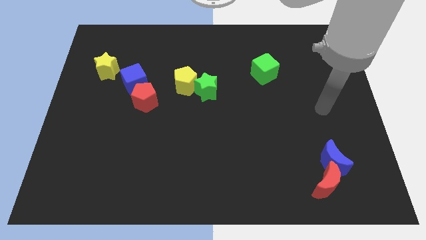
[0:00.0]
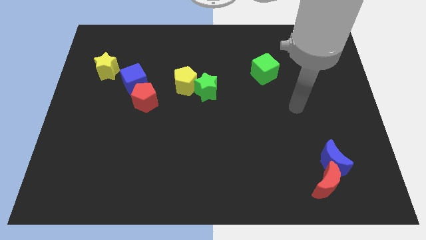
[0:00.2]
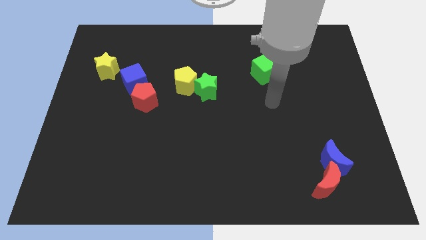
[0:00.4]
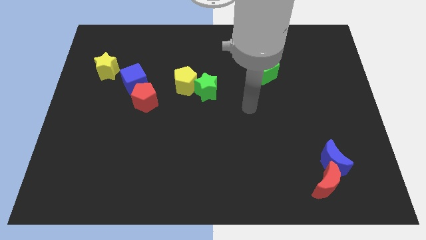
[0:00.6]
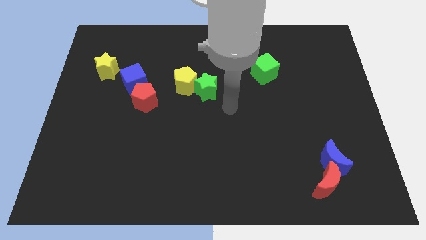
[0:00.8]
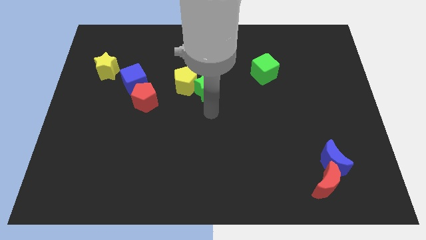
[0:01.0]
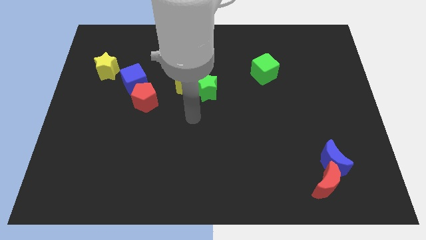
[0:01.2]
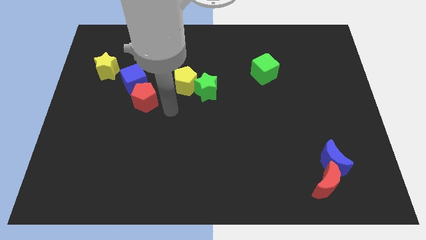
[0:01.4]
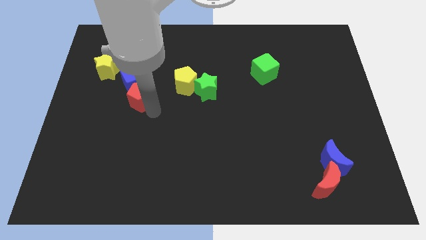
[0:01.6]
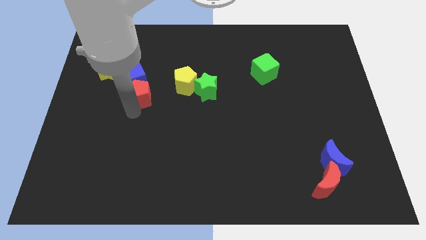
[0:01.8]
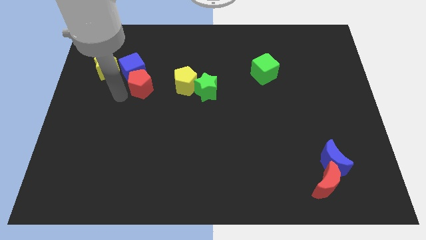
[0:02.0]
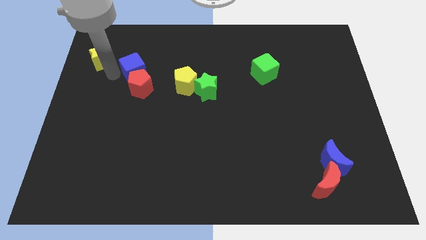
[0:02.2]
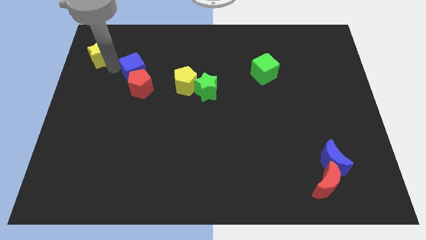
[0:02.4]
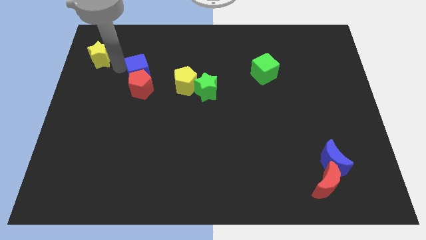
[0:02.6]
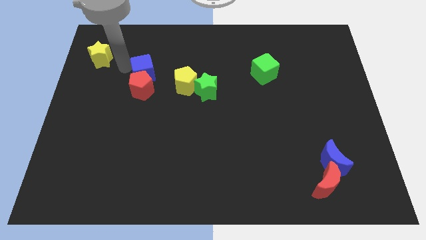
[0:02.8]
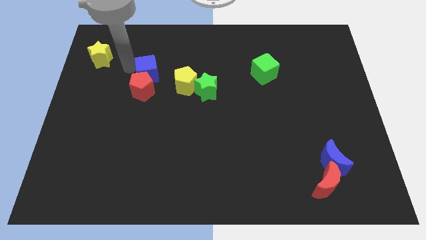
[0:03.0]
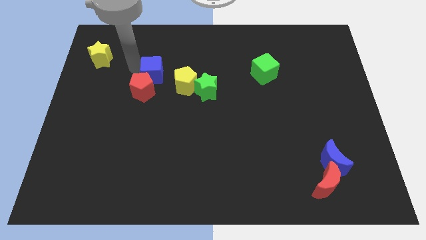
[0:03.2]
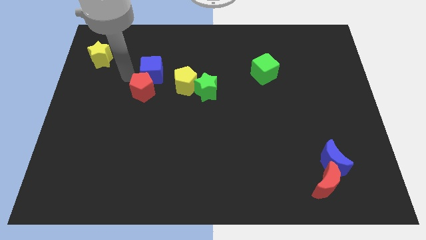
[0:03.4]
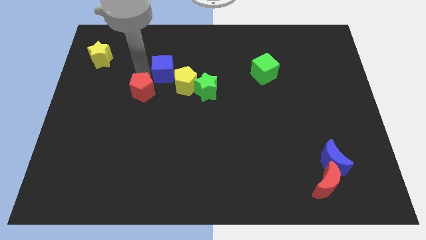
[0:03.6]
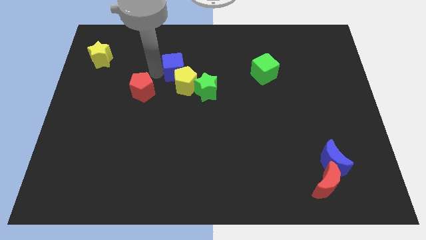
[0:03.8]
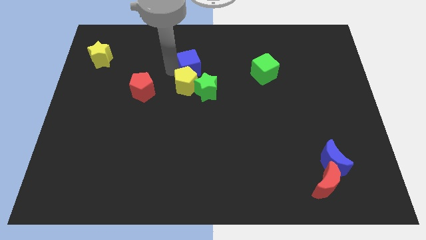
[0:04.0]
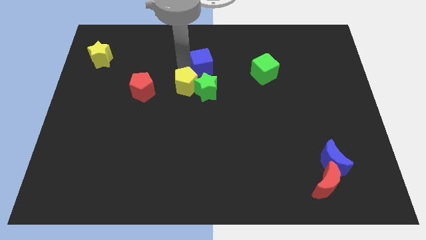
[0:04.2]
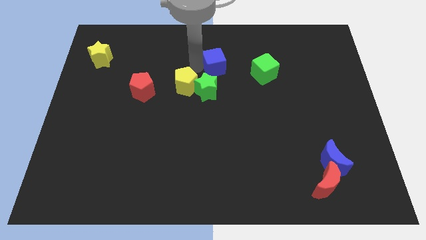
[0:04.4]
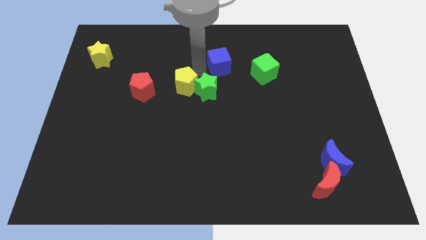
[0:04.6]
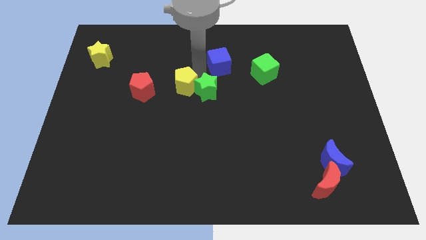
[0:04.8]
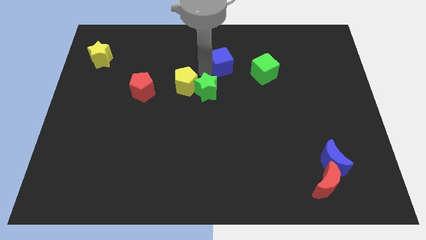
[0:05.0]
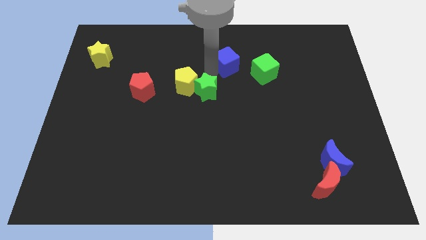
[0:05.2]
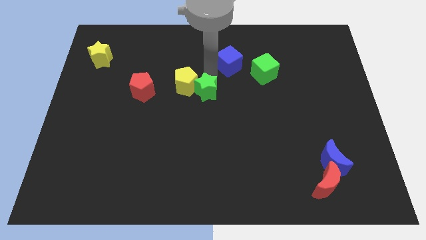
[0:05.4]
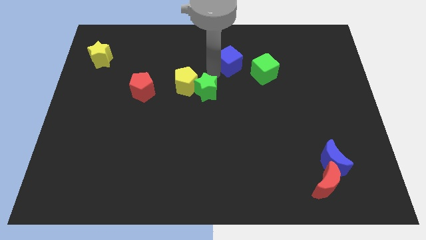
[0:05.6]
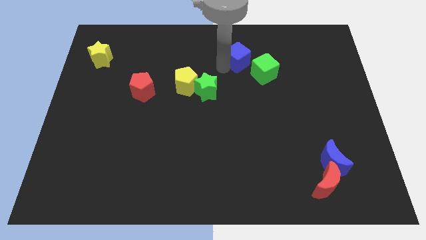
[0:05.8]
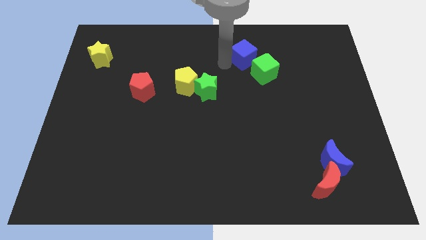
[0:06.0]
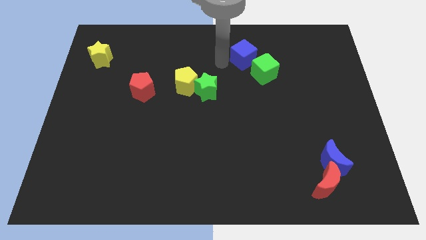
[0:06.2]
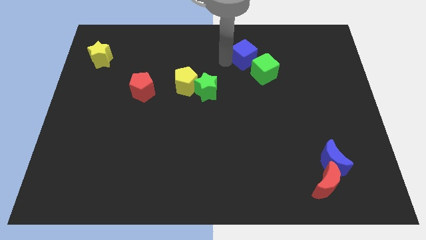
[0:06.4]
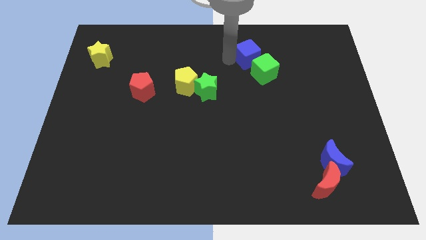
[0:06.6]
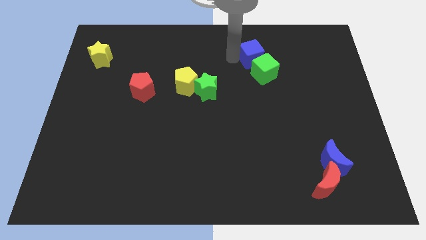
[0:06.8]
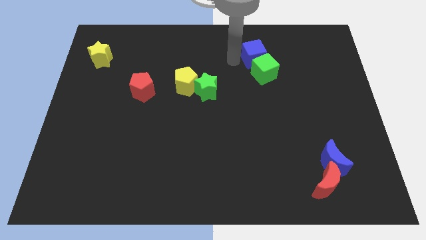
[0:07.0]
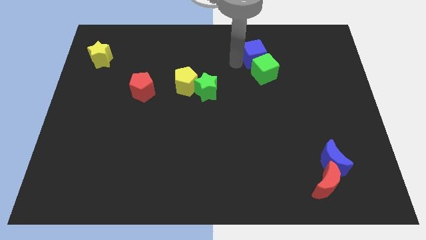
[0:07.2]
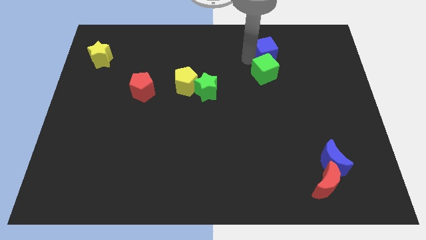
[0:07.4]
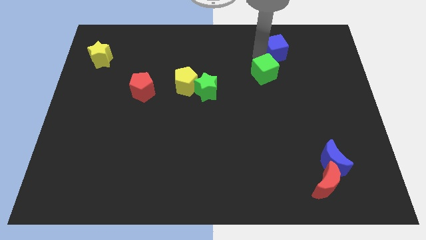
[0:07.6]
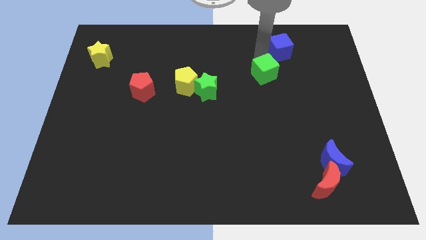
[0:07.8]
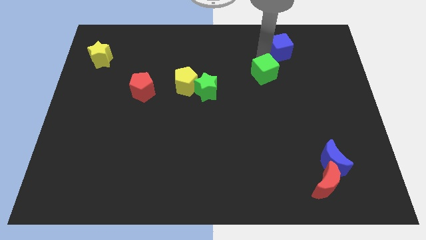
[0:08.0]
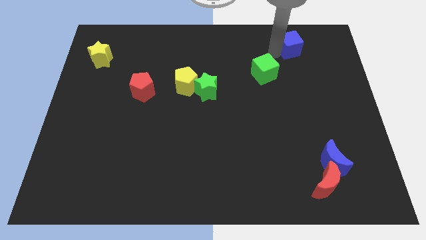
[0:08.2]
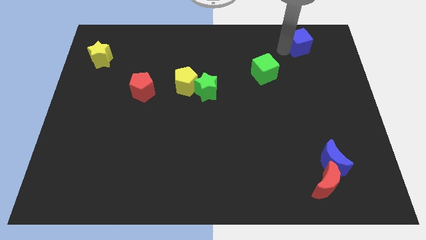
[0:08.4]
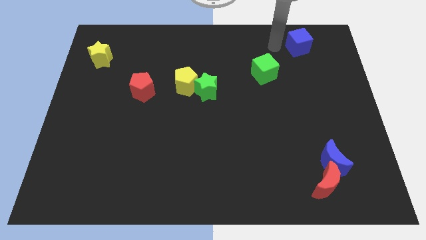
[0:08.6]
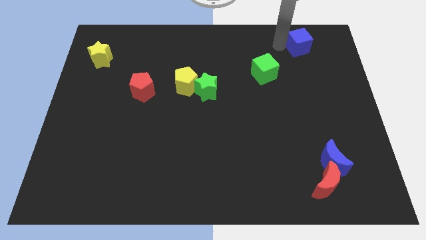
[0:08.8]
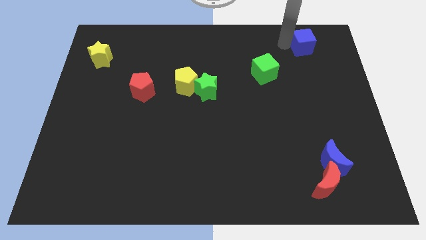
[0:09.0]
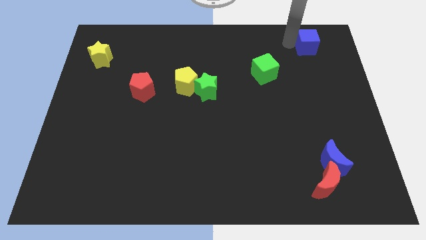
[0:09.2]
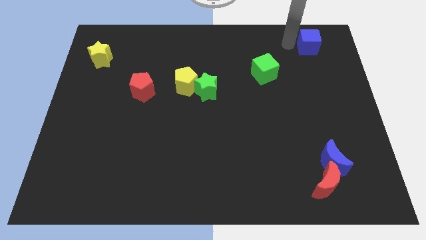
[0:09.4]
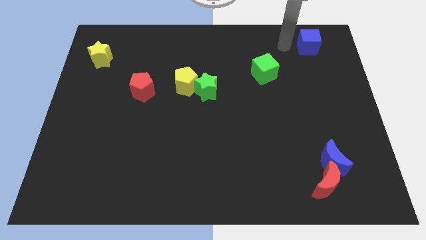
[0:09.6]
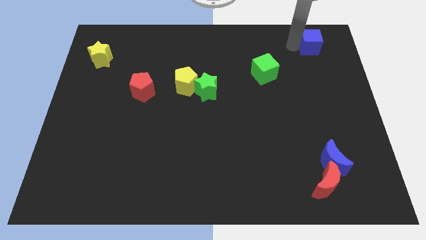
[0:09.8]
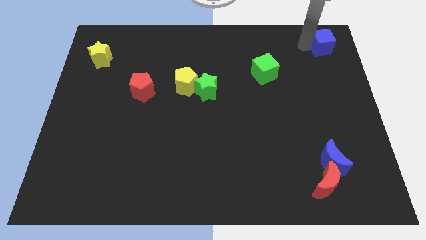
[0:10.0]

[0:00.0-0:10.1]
slide the blue cube to the top right

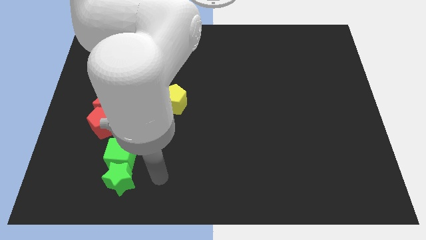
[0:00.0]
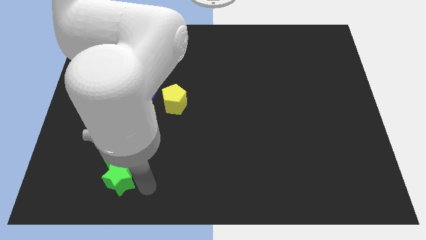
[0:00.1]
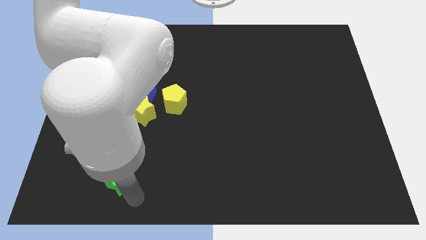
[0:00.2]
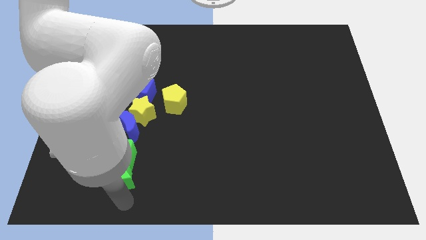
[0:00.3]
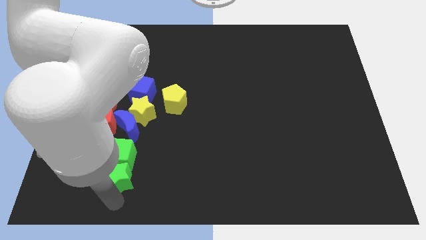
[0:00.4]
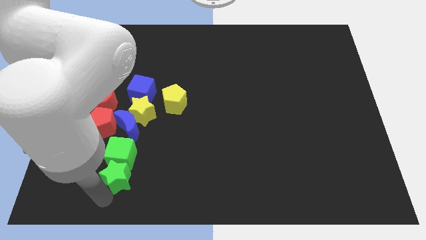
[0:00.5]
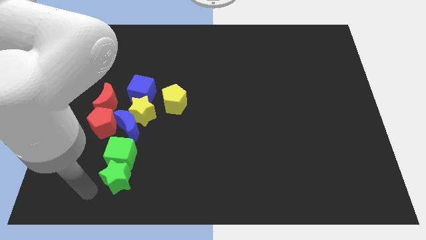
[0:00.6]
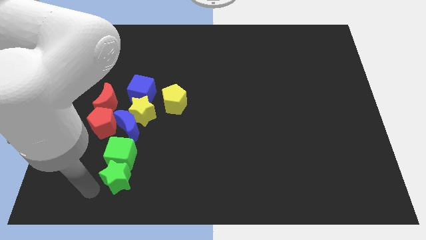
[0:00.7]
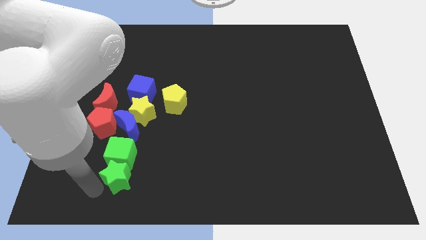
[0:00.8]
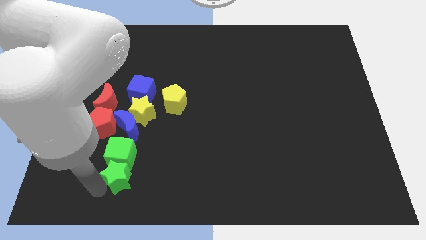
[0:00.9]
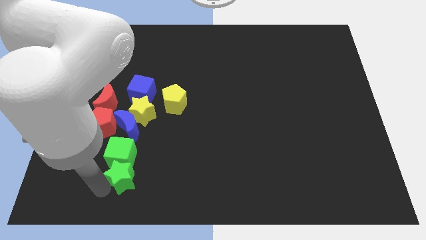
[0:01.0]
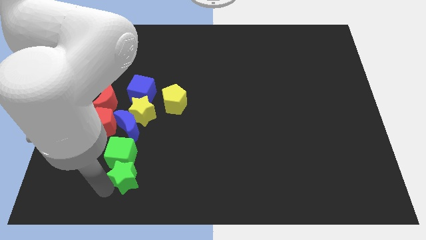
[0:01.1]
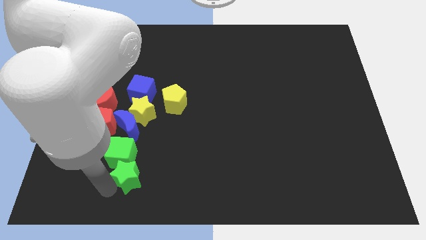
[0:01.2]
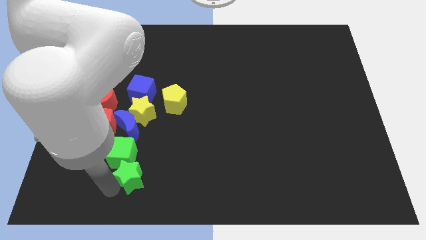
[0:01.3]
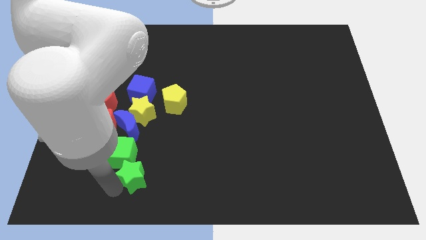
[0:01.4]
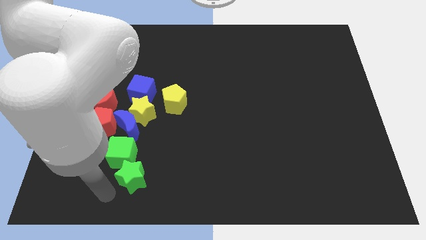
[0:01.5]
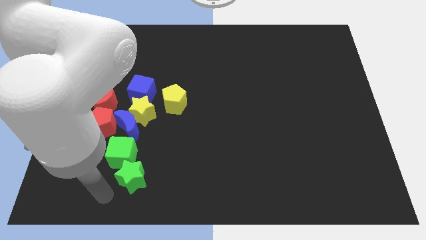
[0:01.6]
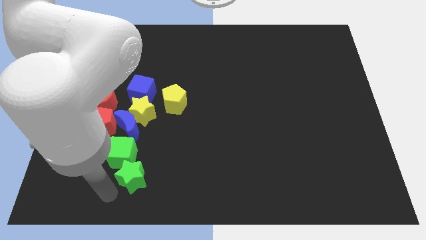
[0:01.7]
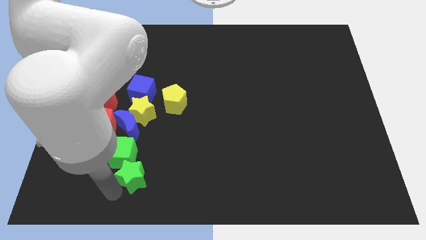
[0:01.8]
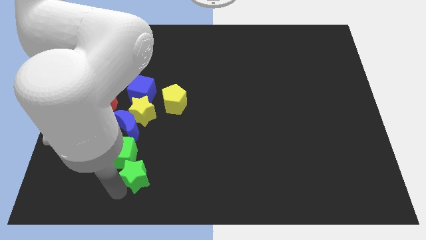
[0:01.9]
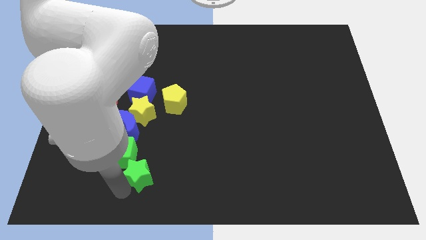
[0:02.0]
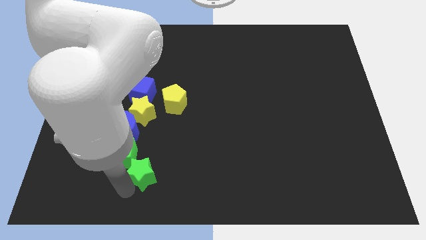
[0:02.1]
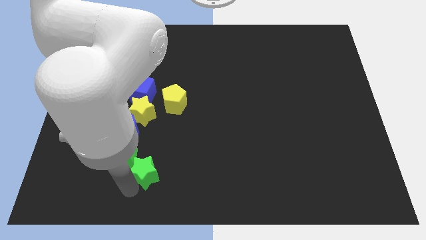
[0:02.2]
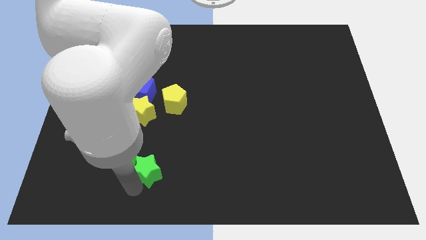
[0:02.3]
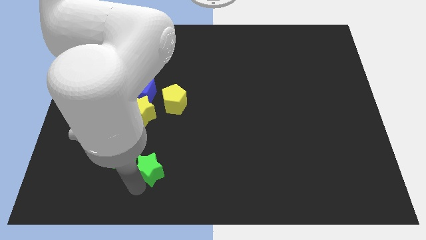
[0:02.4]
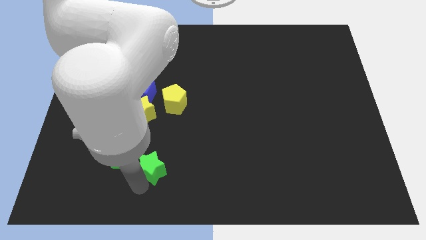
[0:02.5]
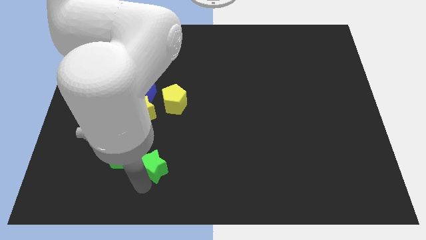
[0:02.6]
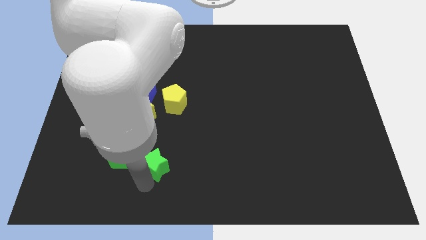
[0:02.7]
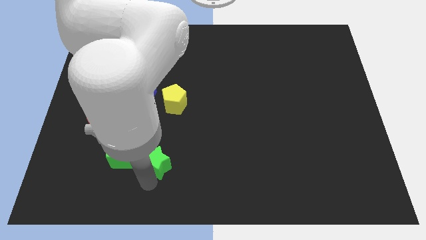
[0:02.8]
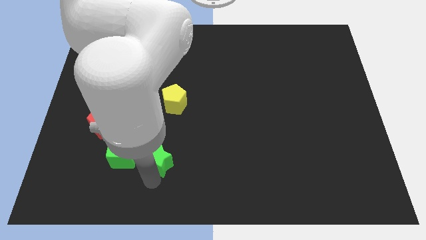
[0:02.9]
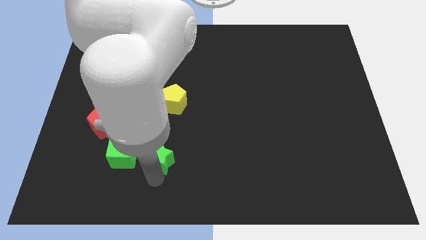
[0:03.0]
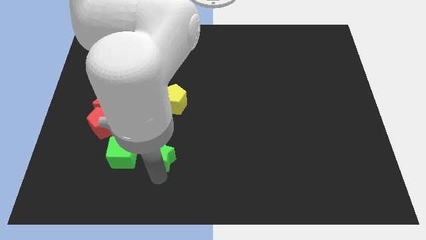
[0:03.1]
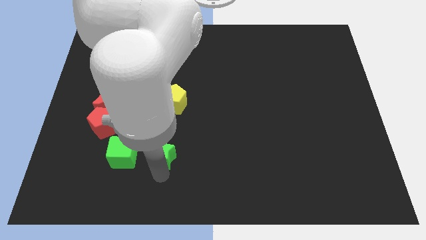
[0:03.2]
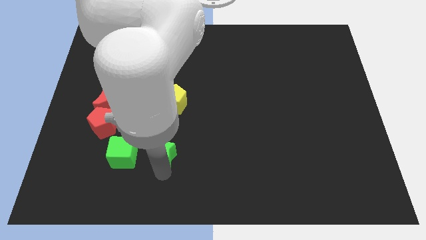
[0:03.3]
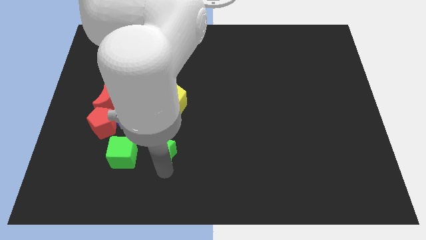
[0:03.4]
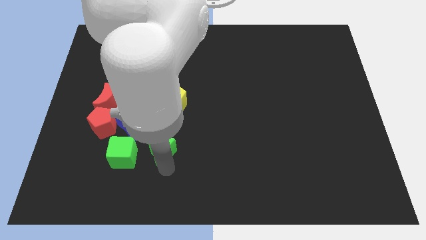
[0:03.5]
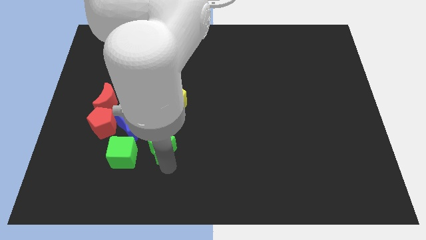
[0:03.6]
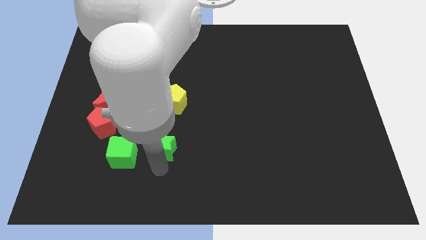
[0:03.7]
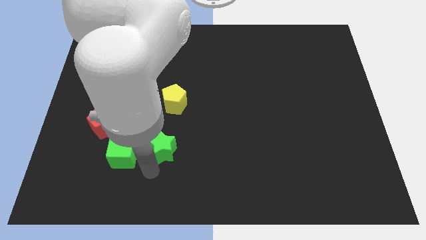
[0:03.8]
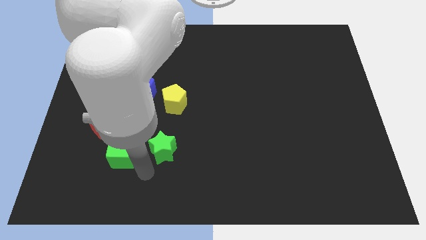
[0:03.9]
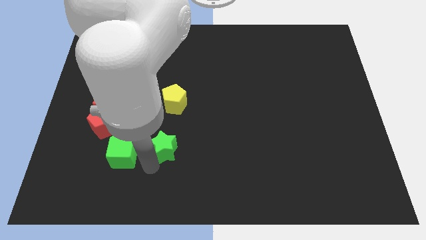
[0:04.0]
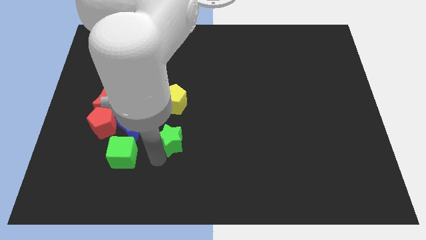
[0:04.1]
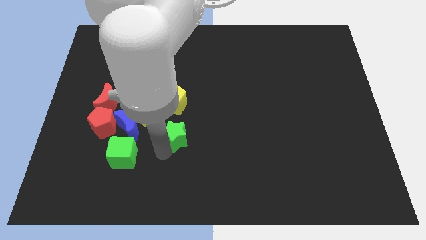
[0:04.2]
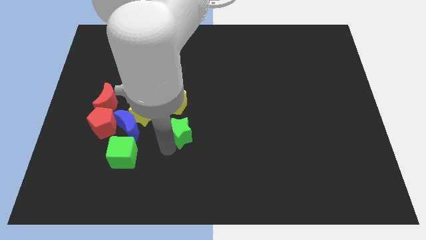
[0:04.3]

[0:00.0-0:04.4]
slide the green star to the center
